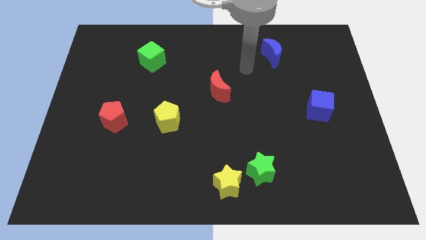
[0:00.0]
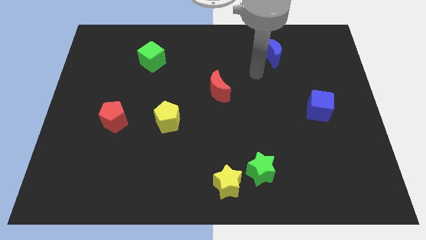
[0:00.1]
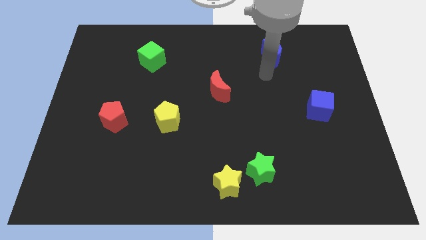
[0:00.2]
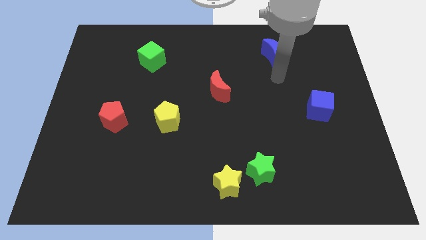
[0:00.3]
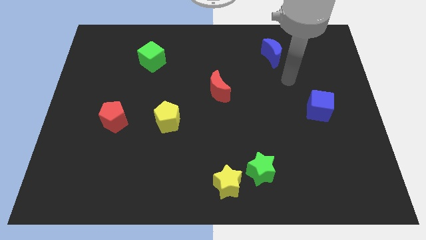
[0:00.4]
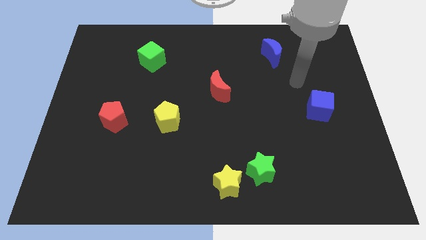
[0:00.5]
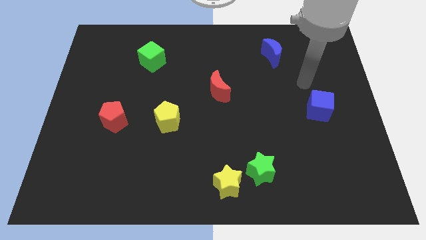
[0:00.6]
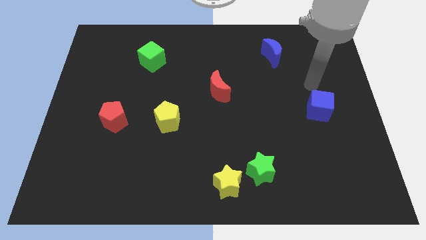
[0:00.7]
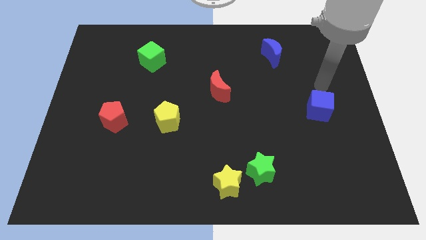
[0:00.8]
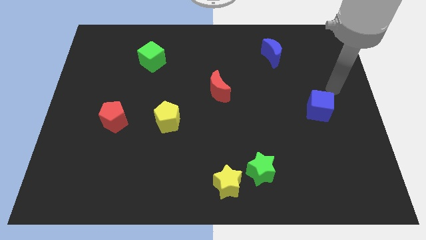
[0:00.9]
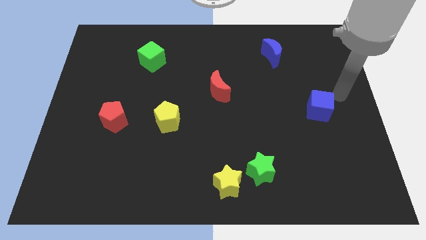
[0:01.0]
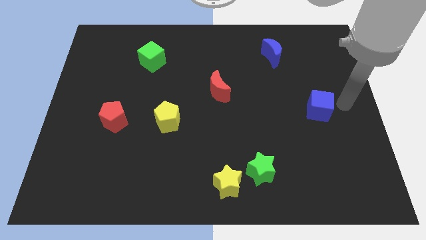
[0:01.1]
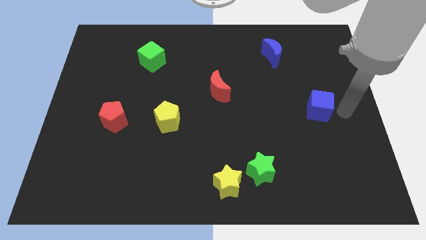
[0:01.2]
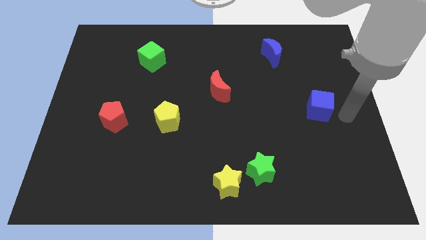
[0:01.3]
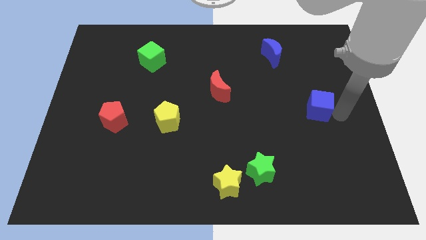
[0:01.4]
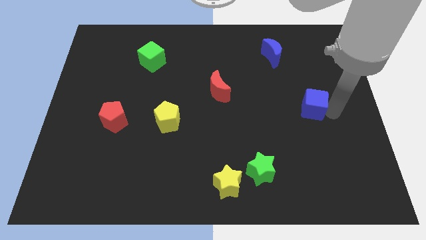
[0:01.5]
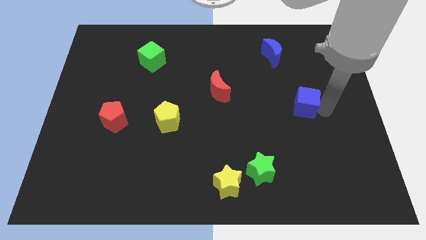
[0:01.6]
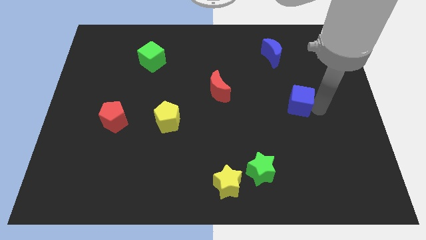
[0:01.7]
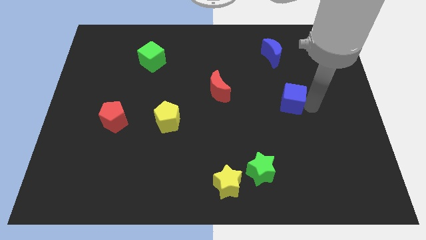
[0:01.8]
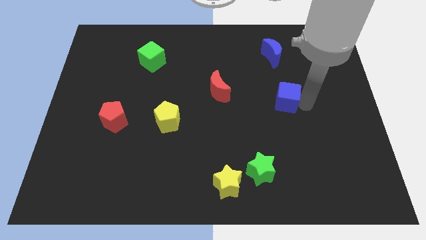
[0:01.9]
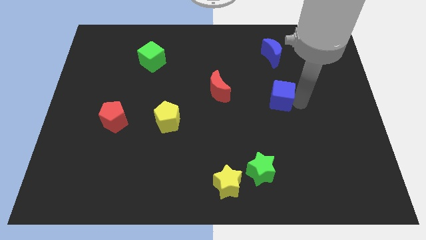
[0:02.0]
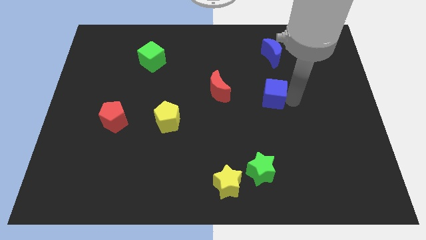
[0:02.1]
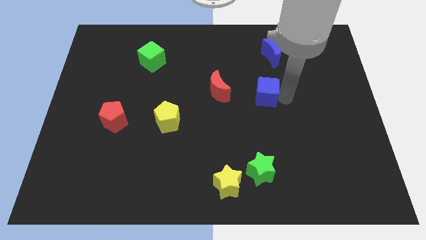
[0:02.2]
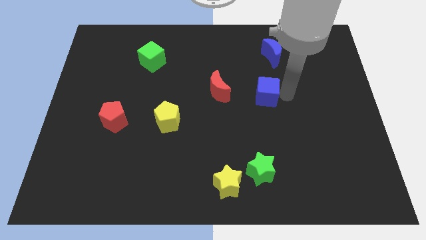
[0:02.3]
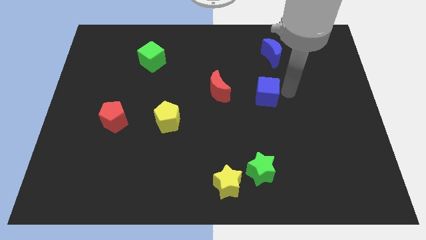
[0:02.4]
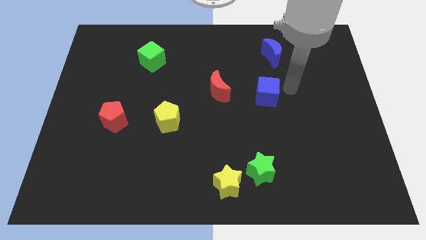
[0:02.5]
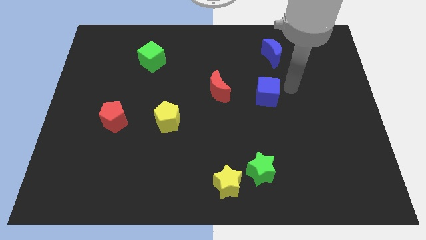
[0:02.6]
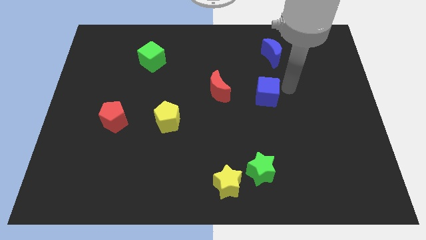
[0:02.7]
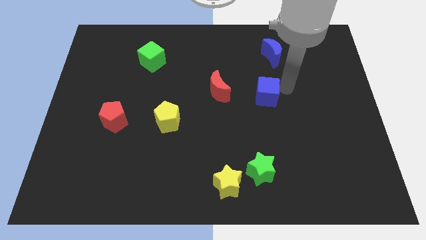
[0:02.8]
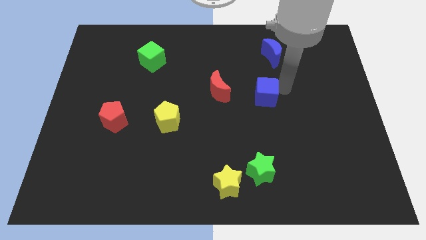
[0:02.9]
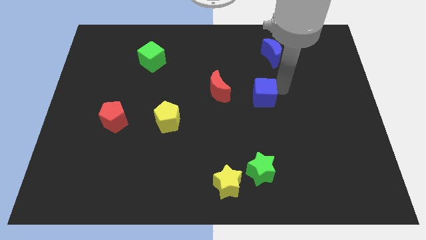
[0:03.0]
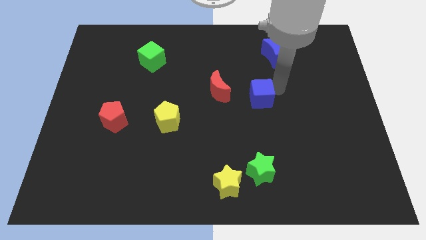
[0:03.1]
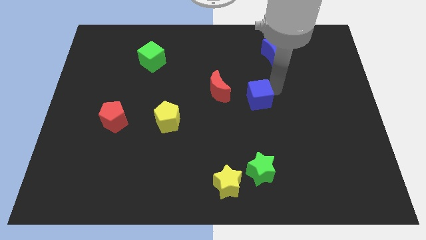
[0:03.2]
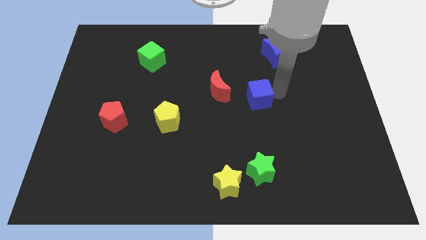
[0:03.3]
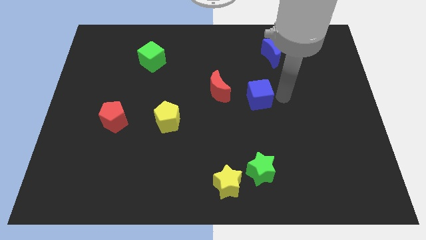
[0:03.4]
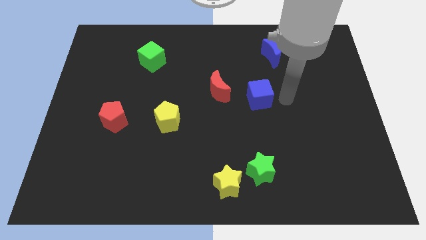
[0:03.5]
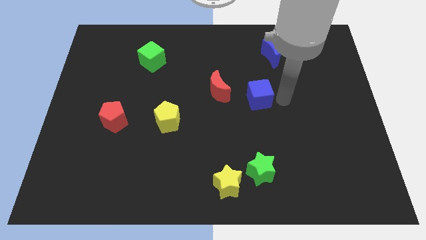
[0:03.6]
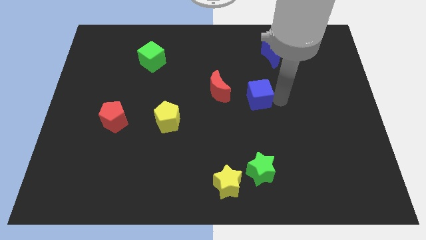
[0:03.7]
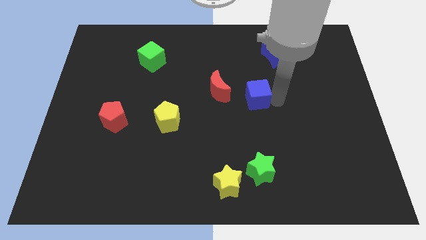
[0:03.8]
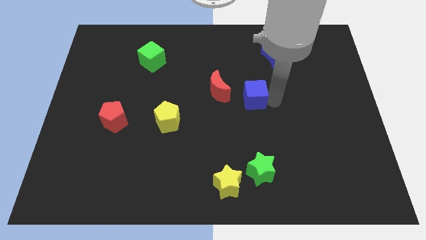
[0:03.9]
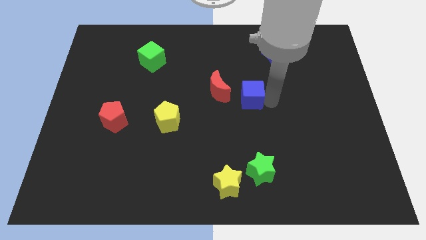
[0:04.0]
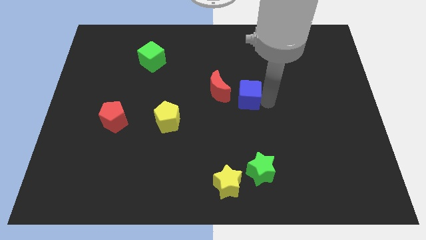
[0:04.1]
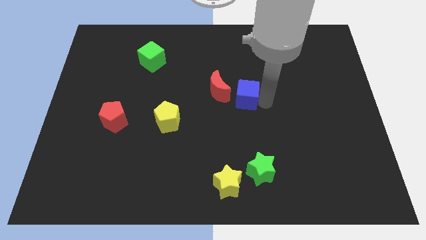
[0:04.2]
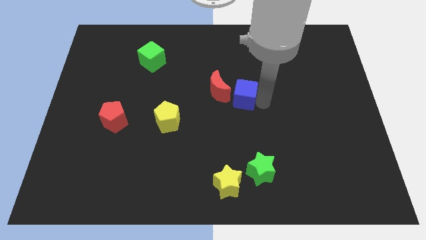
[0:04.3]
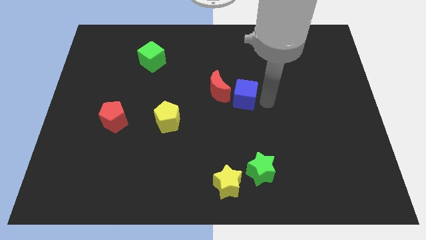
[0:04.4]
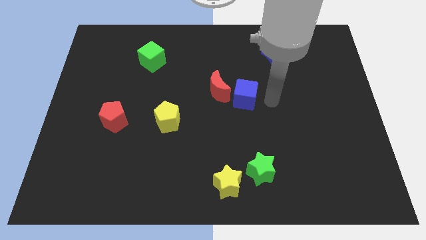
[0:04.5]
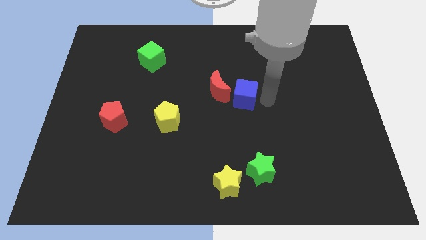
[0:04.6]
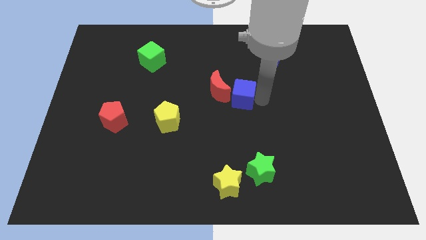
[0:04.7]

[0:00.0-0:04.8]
slide the blue cube to the red moon

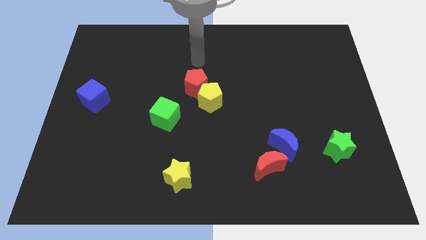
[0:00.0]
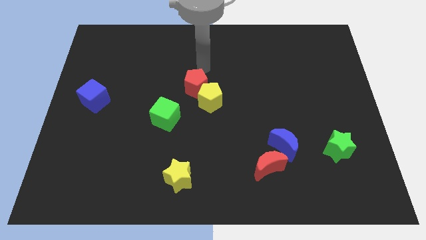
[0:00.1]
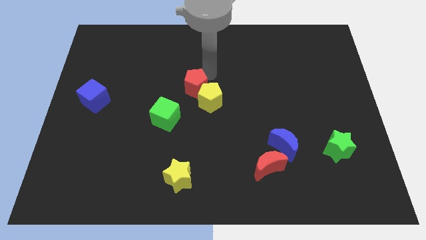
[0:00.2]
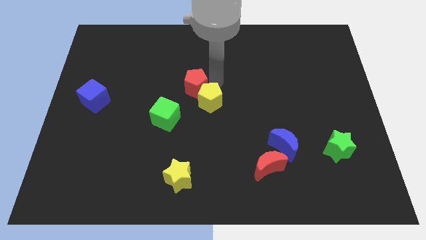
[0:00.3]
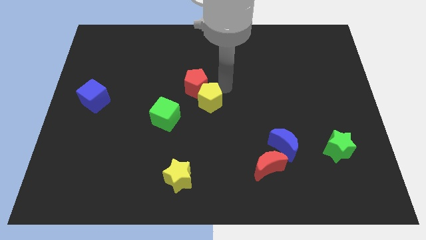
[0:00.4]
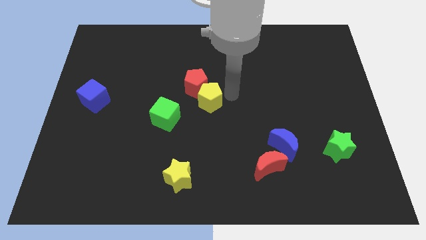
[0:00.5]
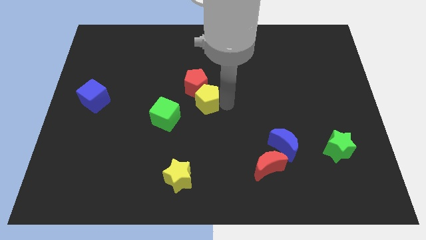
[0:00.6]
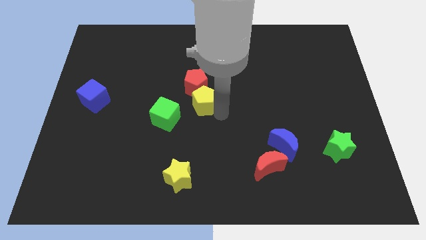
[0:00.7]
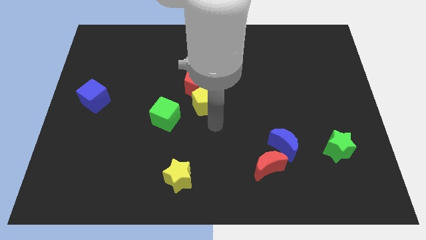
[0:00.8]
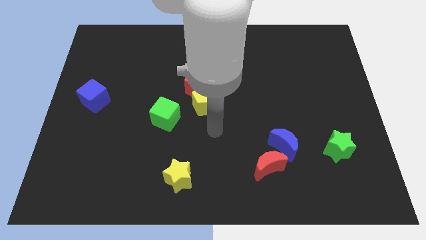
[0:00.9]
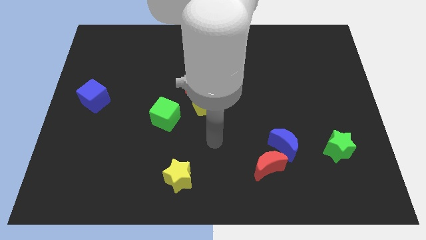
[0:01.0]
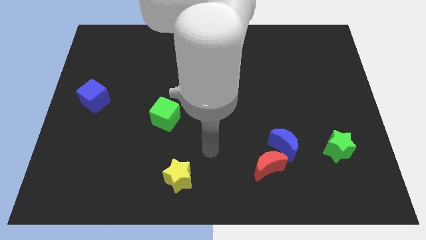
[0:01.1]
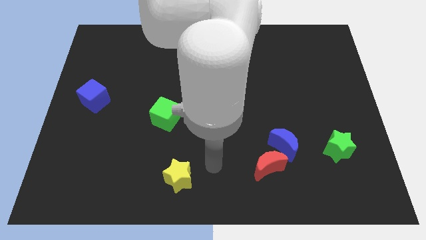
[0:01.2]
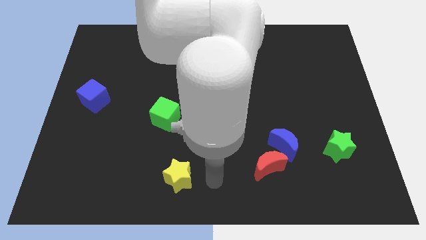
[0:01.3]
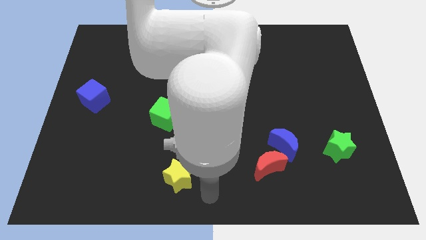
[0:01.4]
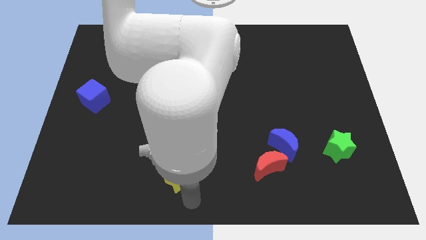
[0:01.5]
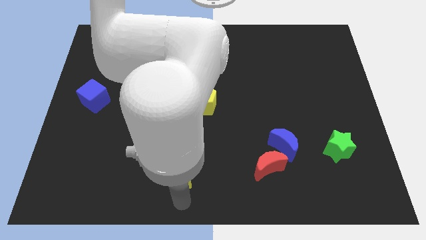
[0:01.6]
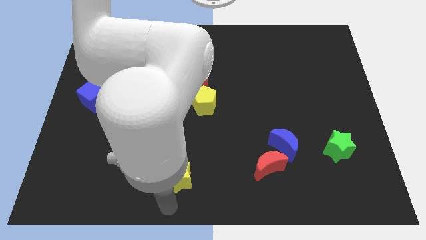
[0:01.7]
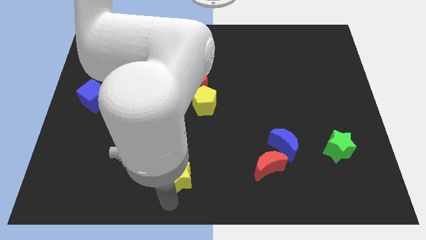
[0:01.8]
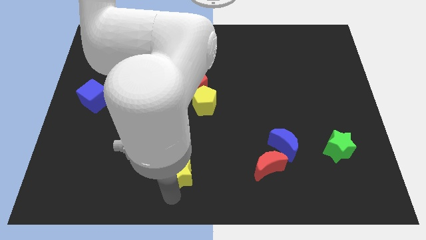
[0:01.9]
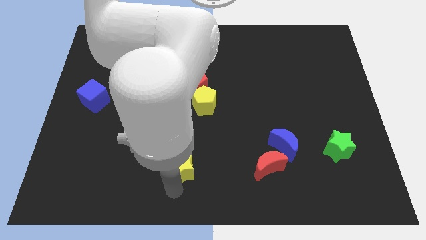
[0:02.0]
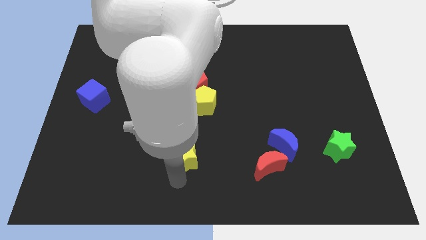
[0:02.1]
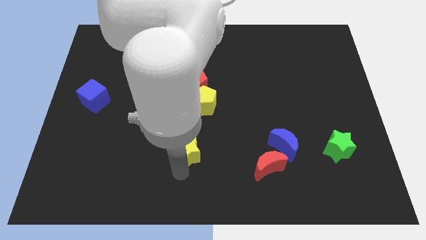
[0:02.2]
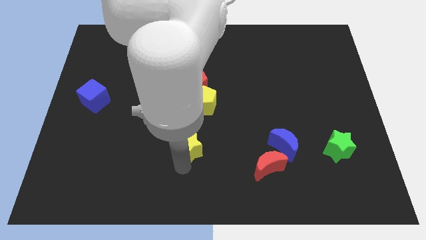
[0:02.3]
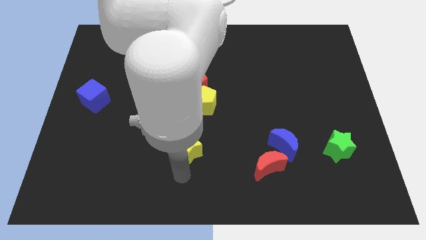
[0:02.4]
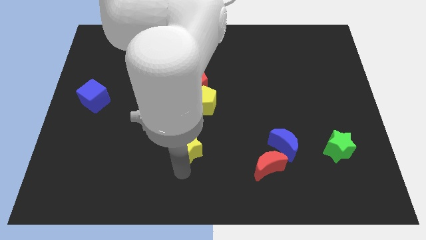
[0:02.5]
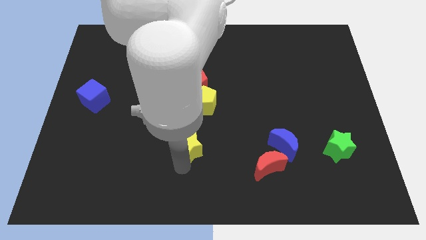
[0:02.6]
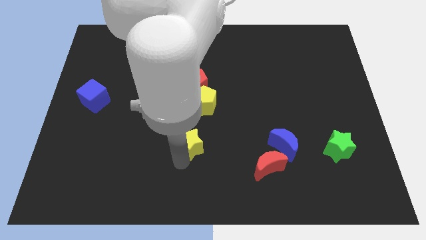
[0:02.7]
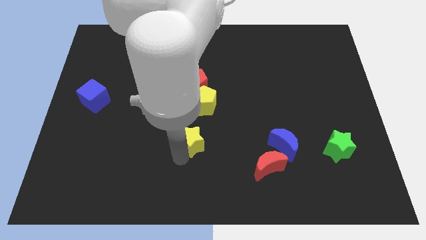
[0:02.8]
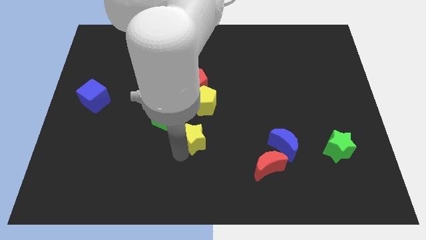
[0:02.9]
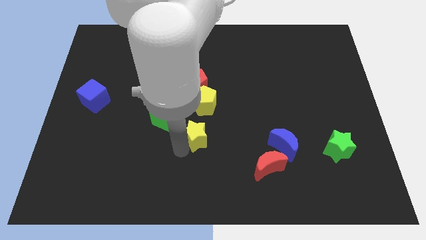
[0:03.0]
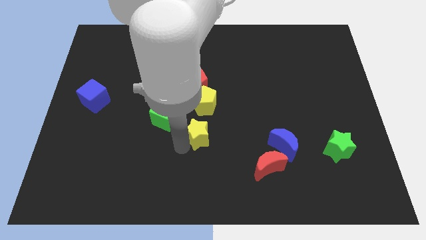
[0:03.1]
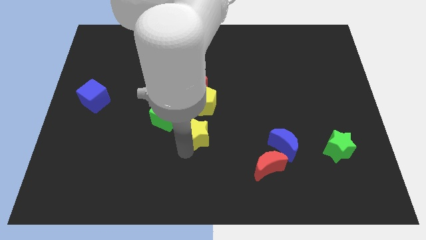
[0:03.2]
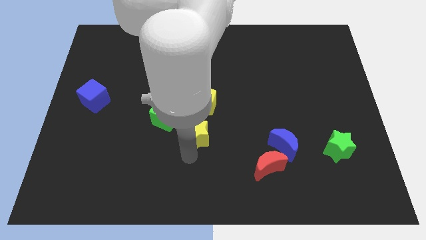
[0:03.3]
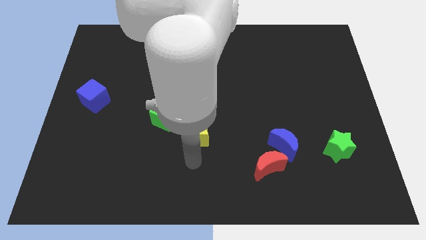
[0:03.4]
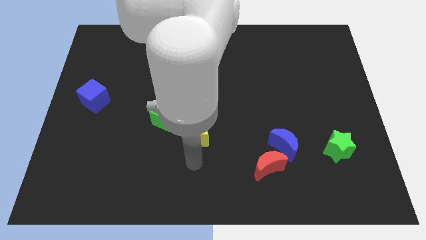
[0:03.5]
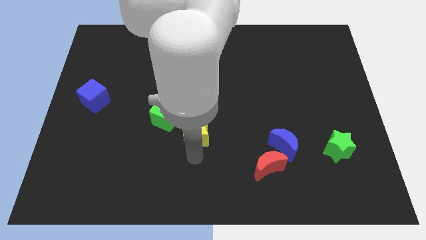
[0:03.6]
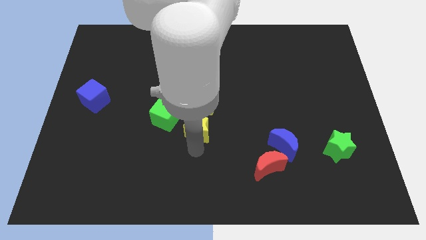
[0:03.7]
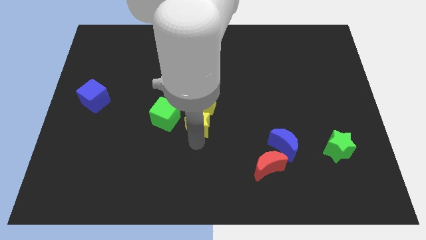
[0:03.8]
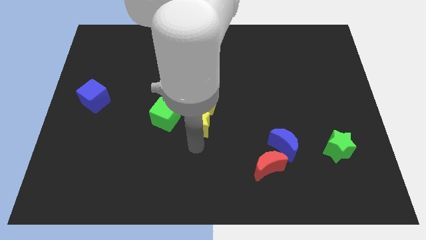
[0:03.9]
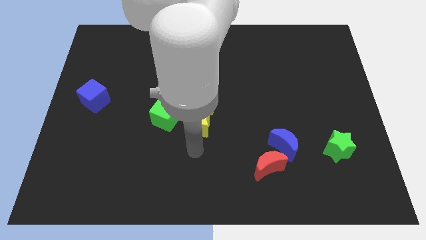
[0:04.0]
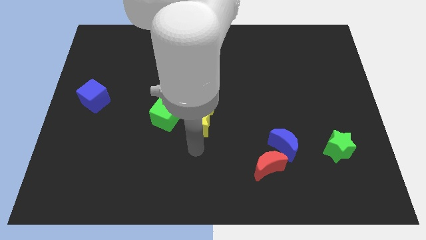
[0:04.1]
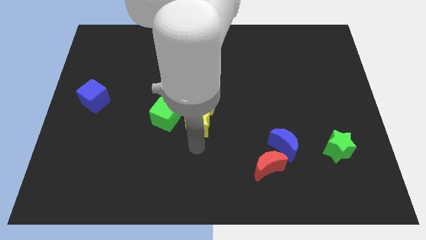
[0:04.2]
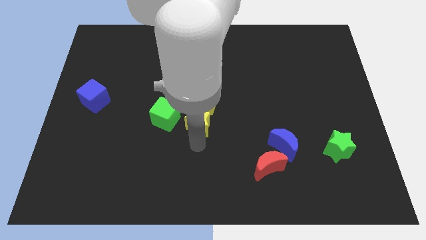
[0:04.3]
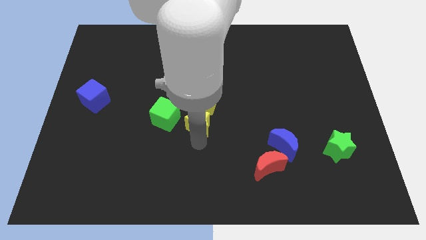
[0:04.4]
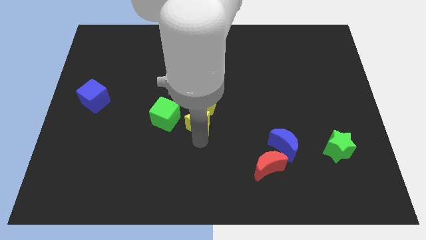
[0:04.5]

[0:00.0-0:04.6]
slide the yellow star next to the yellow pentagon
